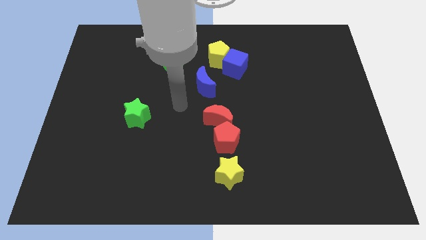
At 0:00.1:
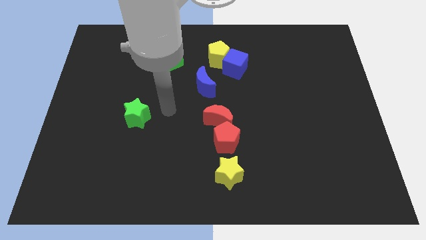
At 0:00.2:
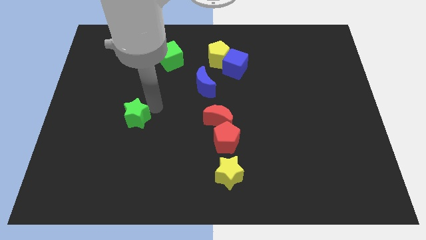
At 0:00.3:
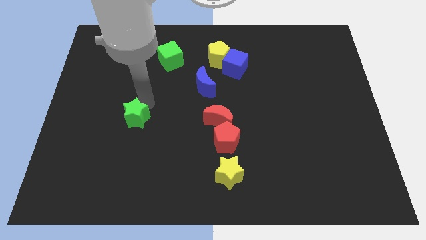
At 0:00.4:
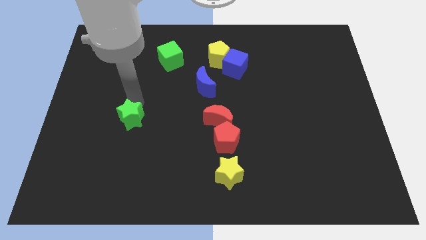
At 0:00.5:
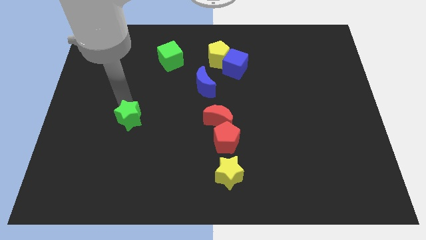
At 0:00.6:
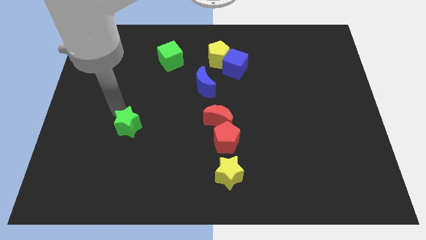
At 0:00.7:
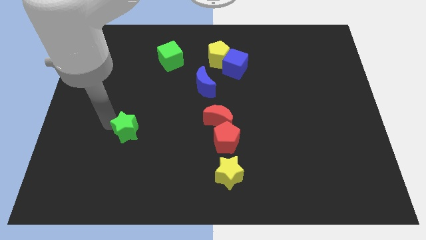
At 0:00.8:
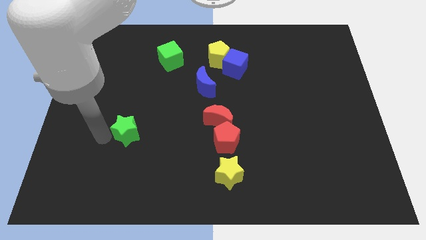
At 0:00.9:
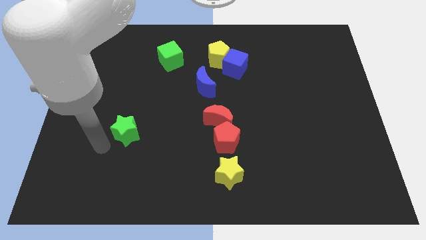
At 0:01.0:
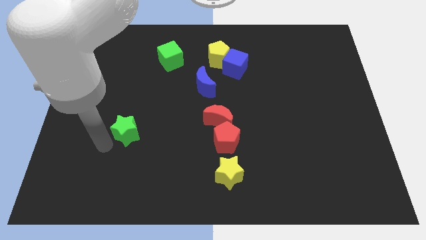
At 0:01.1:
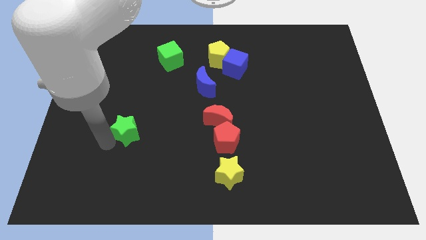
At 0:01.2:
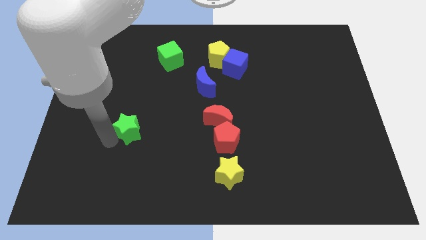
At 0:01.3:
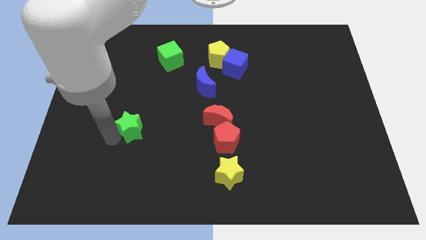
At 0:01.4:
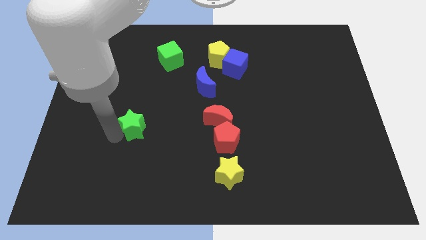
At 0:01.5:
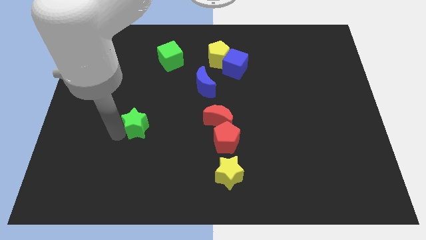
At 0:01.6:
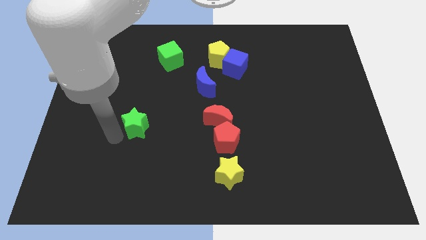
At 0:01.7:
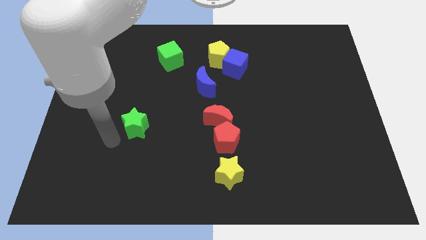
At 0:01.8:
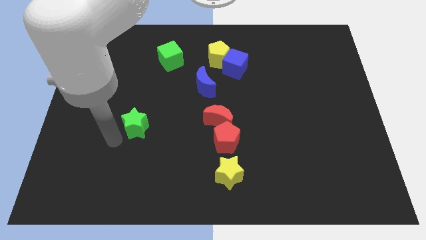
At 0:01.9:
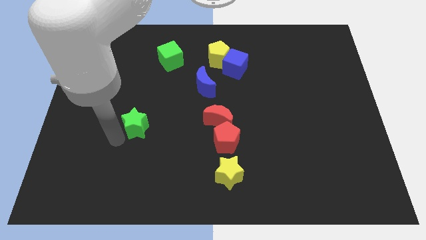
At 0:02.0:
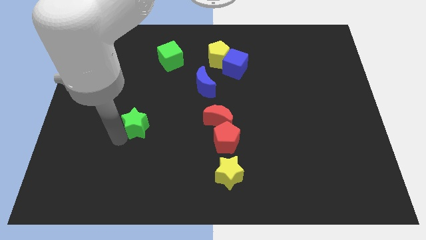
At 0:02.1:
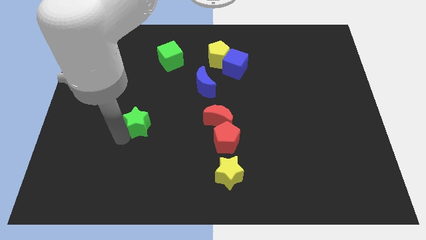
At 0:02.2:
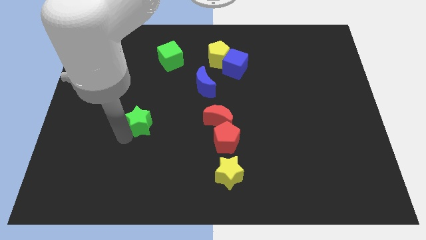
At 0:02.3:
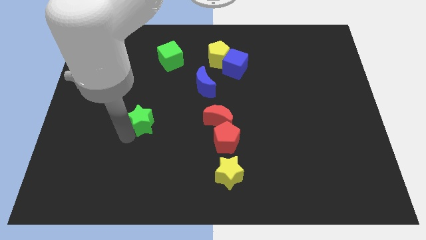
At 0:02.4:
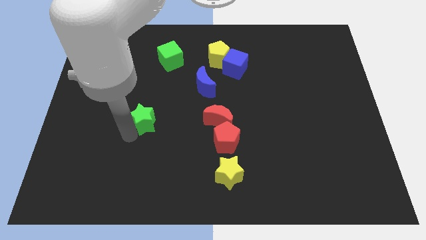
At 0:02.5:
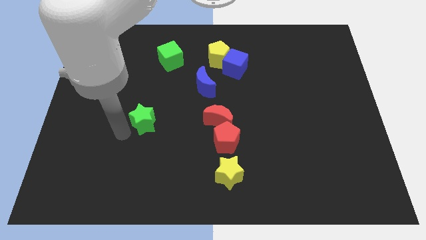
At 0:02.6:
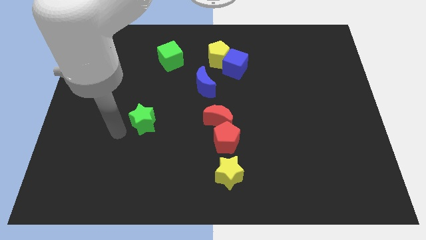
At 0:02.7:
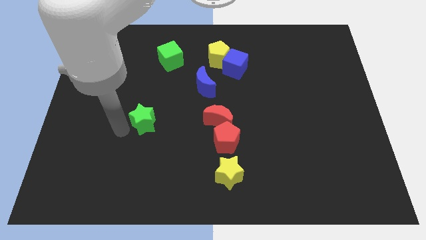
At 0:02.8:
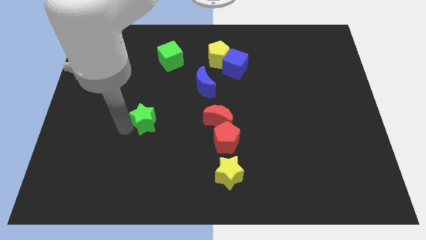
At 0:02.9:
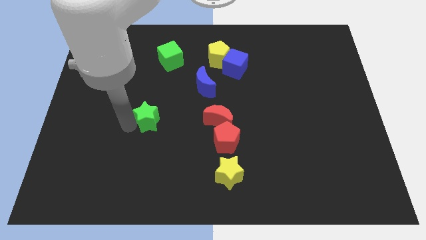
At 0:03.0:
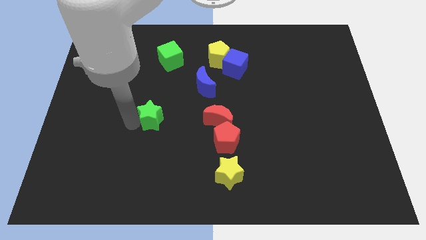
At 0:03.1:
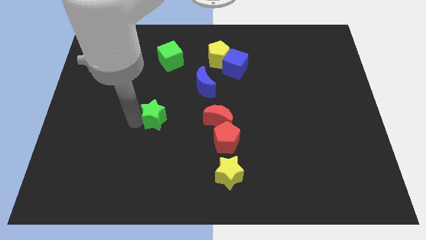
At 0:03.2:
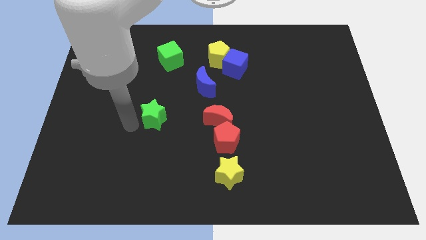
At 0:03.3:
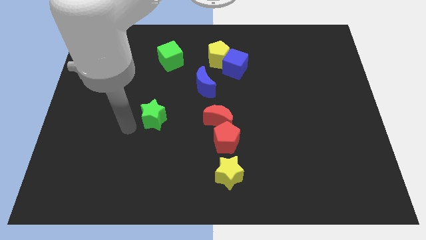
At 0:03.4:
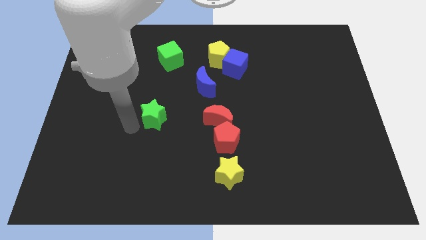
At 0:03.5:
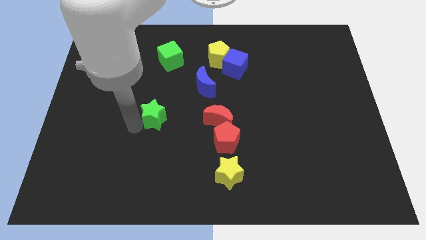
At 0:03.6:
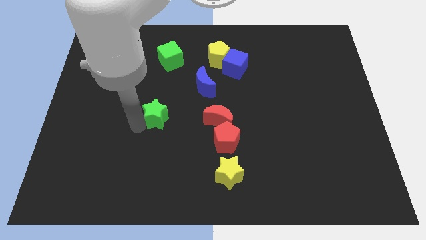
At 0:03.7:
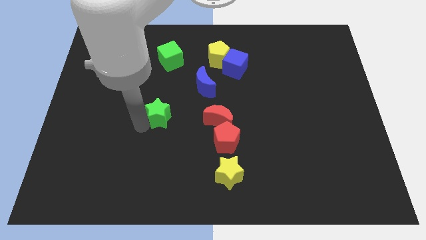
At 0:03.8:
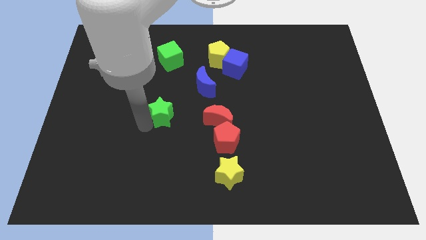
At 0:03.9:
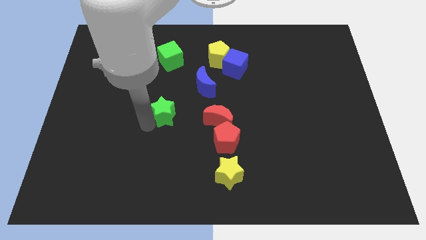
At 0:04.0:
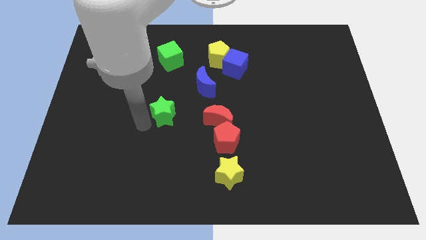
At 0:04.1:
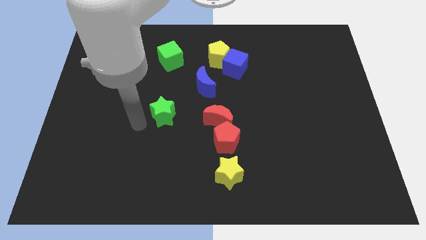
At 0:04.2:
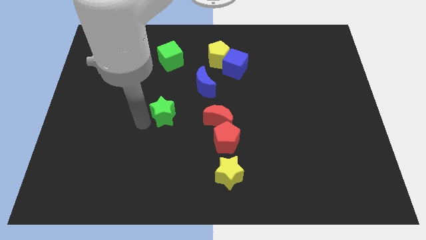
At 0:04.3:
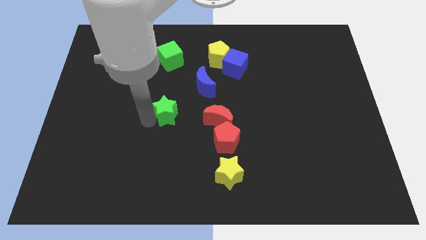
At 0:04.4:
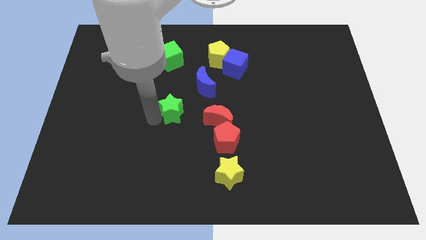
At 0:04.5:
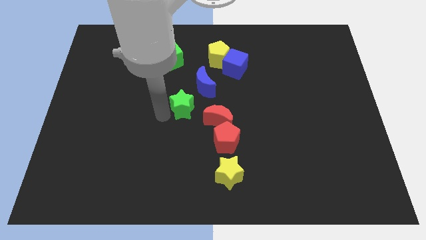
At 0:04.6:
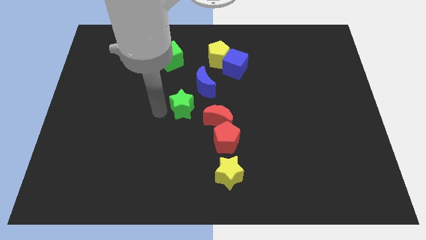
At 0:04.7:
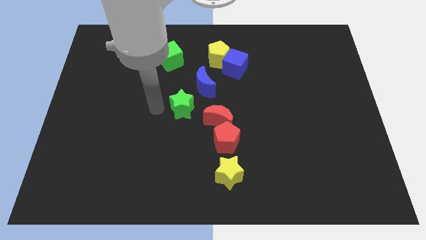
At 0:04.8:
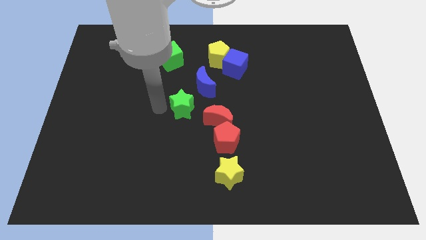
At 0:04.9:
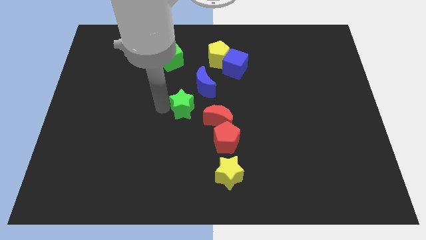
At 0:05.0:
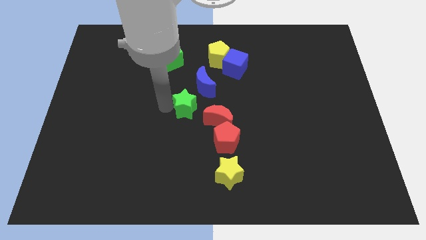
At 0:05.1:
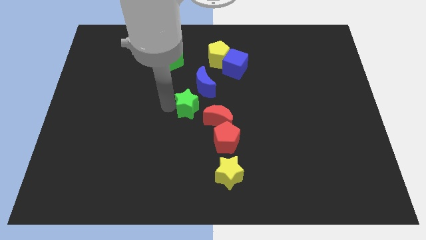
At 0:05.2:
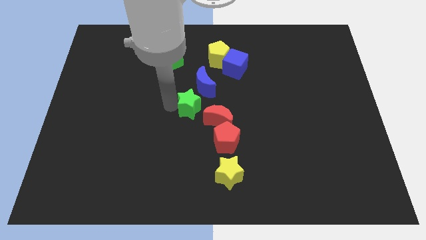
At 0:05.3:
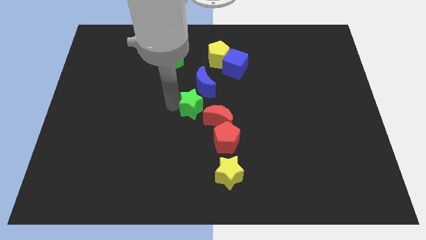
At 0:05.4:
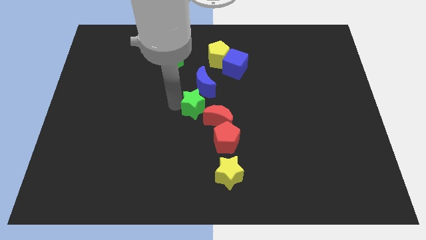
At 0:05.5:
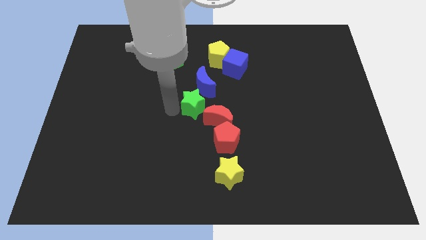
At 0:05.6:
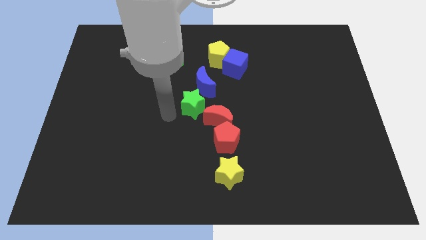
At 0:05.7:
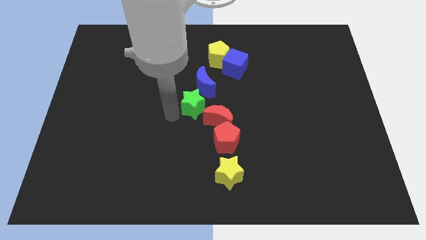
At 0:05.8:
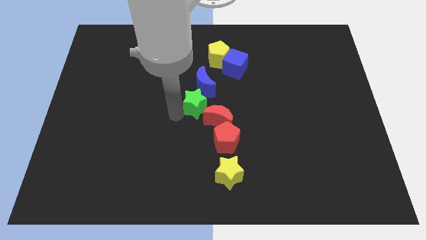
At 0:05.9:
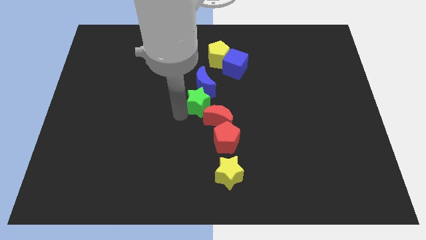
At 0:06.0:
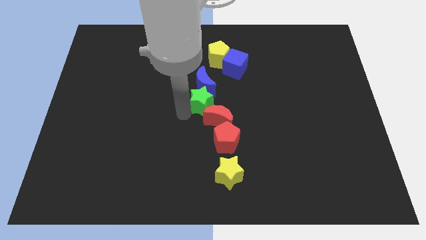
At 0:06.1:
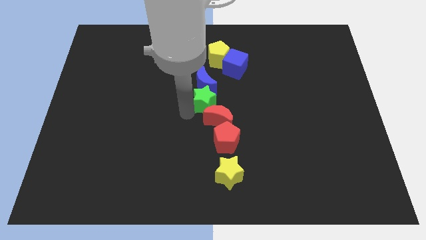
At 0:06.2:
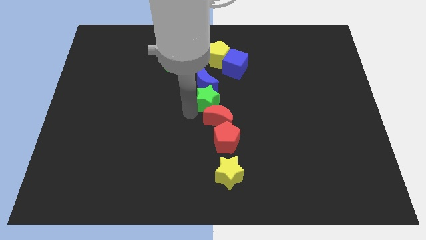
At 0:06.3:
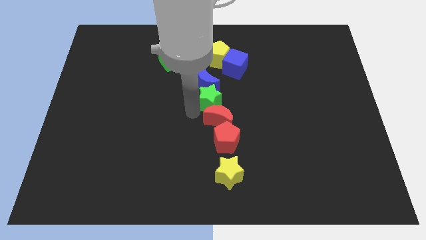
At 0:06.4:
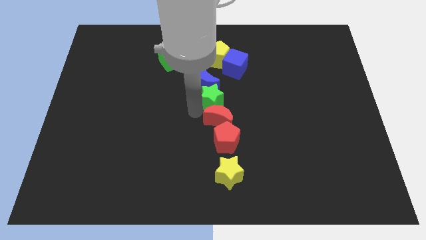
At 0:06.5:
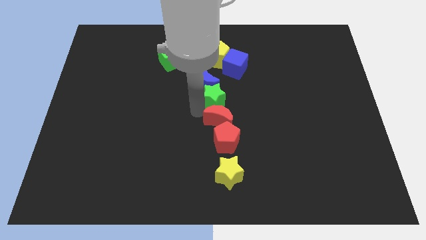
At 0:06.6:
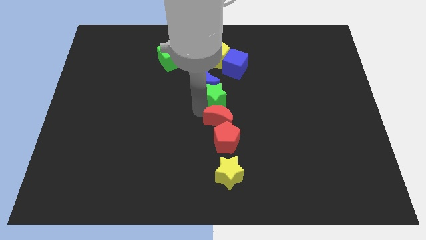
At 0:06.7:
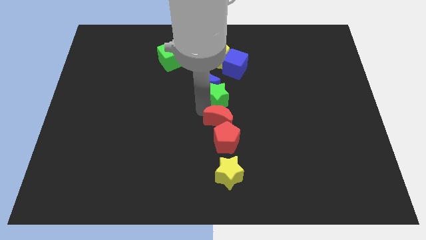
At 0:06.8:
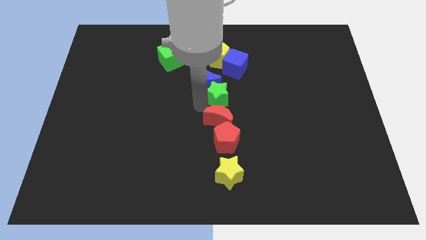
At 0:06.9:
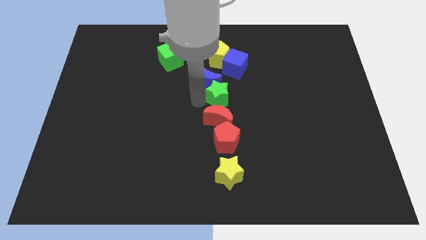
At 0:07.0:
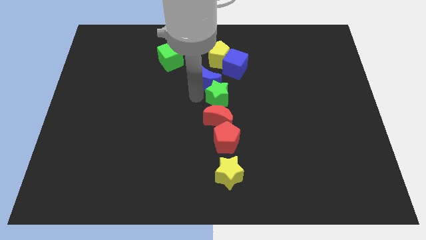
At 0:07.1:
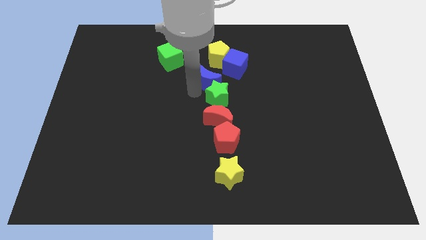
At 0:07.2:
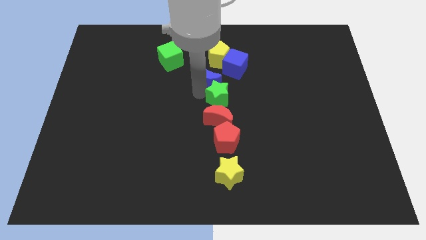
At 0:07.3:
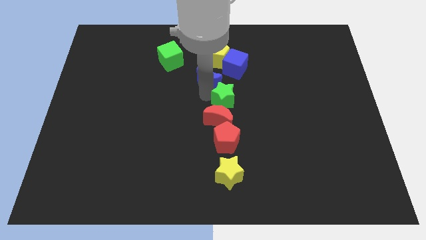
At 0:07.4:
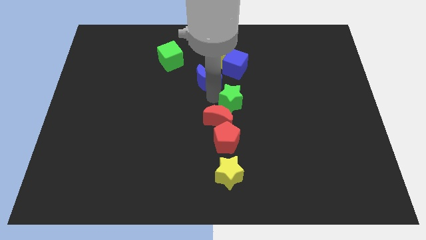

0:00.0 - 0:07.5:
push the green star right

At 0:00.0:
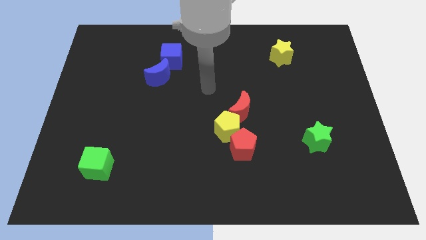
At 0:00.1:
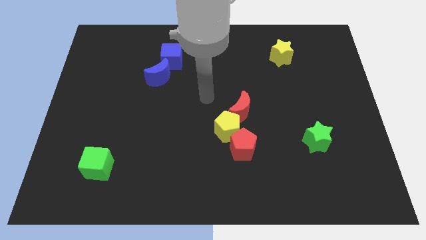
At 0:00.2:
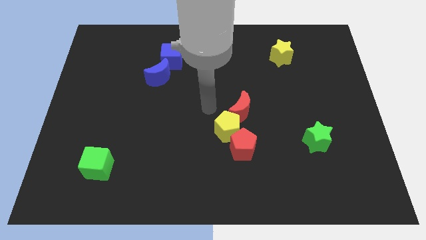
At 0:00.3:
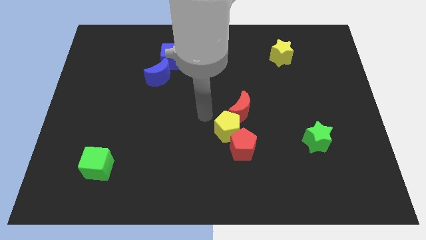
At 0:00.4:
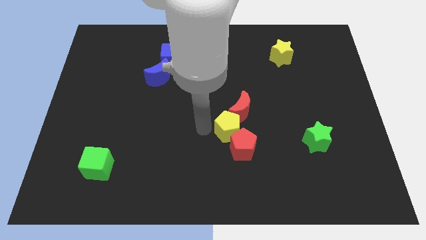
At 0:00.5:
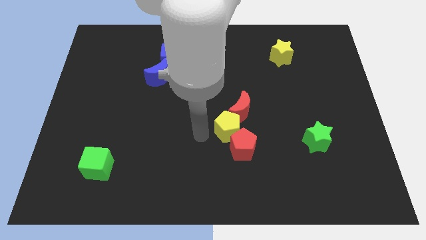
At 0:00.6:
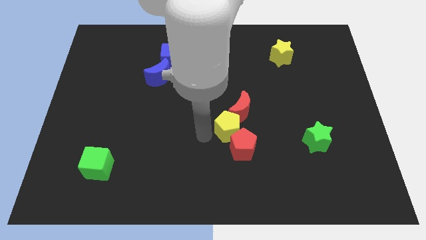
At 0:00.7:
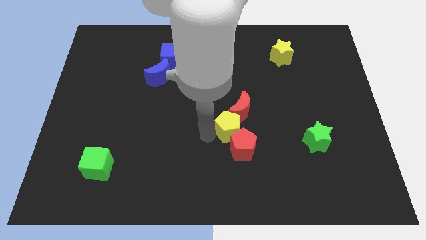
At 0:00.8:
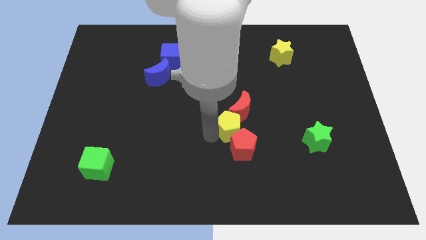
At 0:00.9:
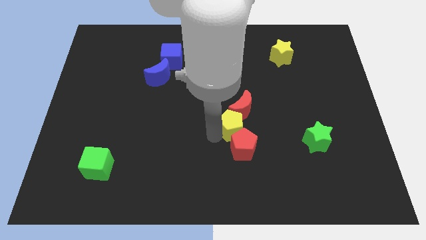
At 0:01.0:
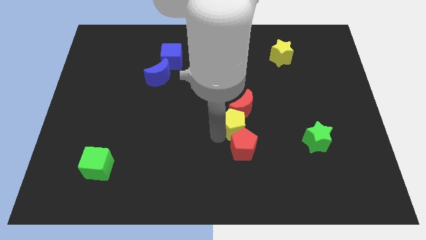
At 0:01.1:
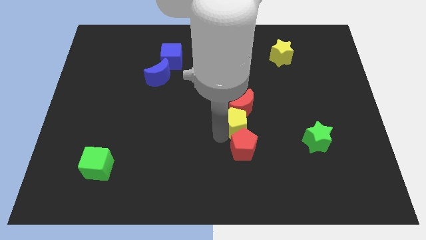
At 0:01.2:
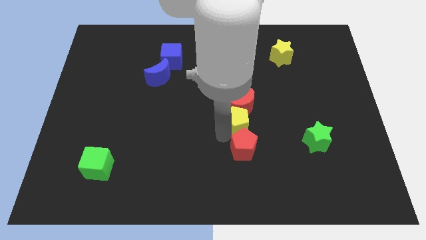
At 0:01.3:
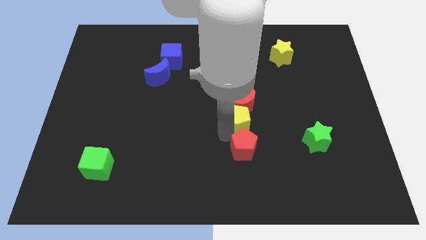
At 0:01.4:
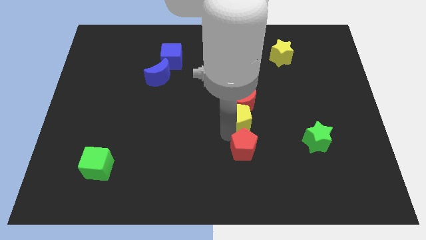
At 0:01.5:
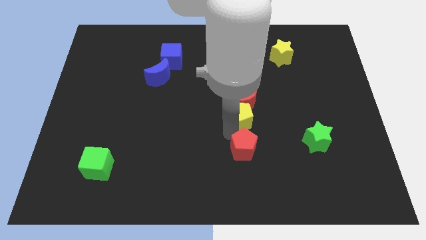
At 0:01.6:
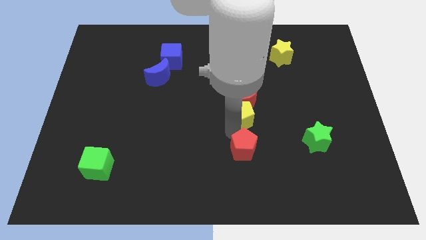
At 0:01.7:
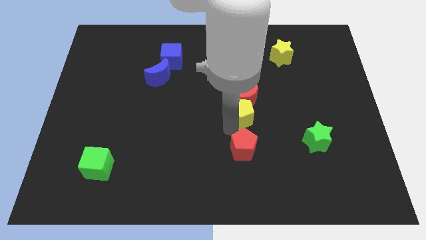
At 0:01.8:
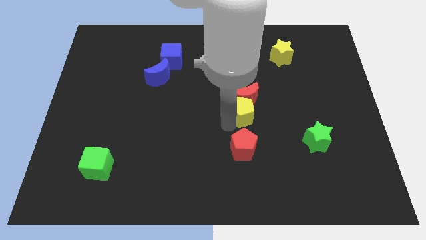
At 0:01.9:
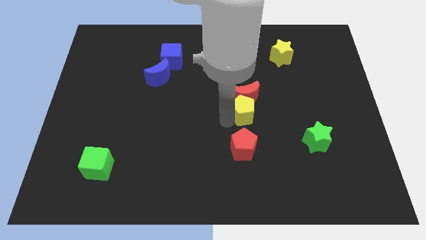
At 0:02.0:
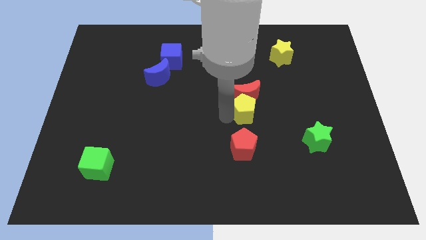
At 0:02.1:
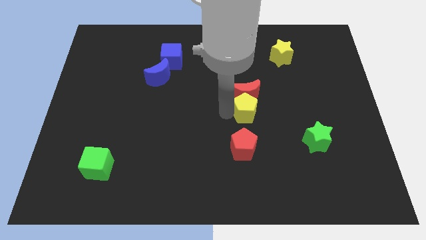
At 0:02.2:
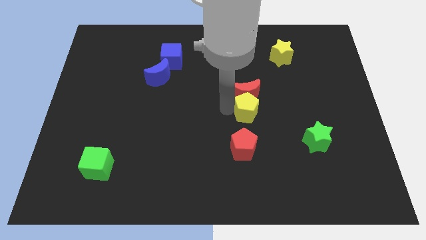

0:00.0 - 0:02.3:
push the yellow pentagon a little up and then to the right
